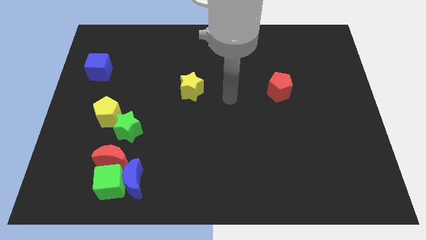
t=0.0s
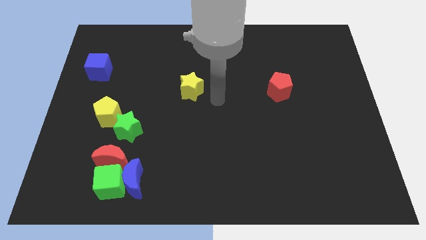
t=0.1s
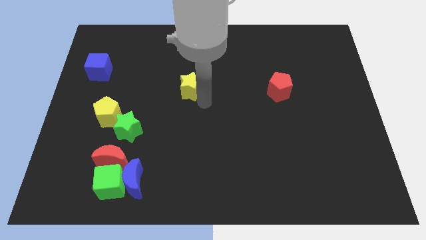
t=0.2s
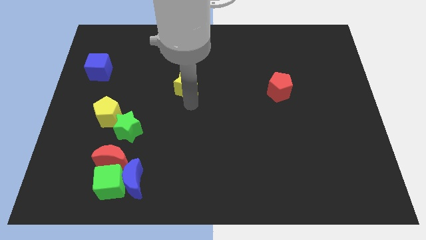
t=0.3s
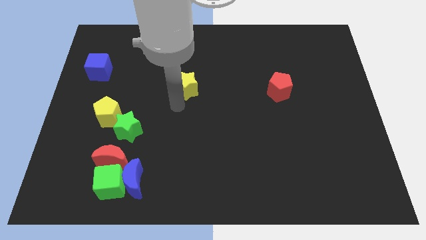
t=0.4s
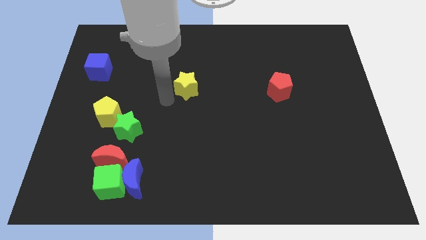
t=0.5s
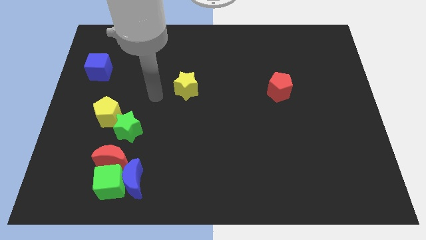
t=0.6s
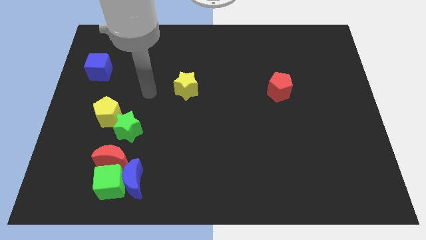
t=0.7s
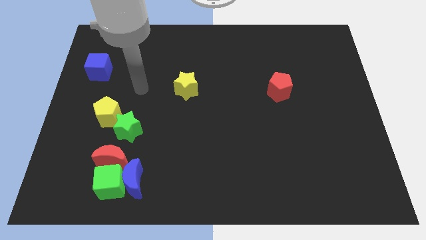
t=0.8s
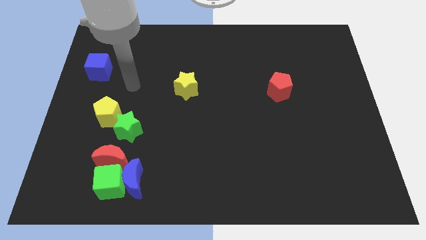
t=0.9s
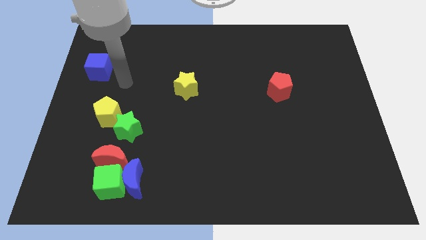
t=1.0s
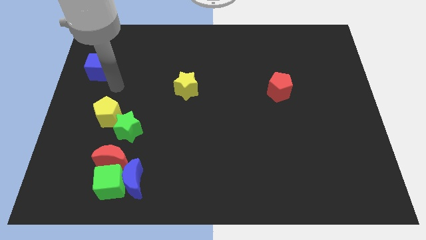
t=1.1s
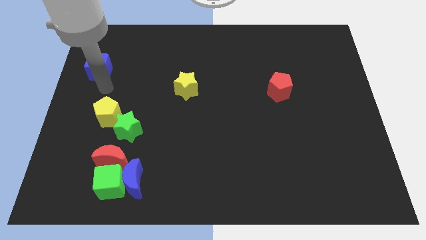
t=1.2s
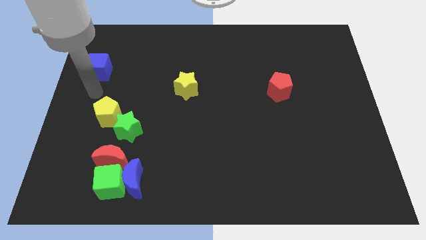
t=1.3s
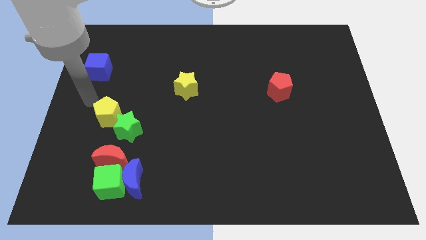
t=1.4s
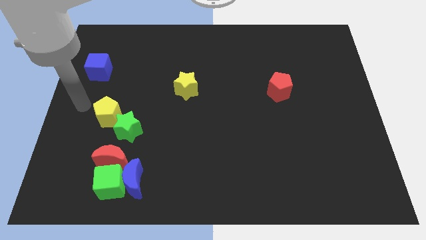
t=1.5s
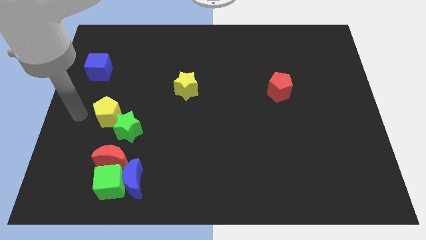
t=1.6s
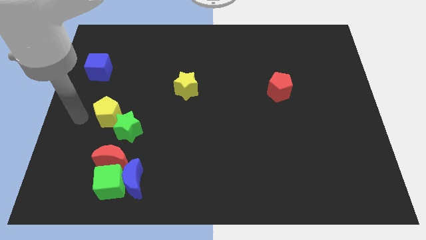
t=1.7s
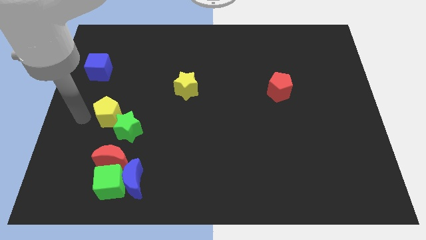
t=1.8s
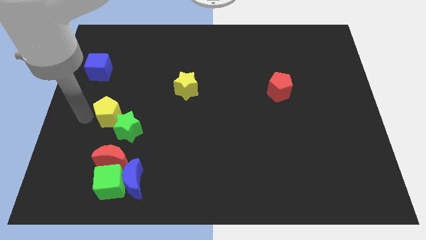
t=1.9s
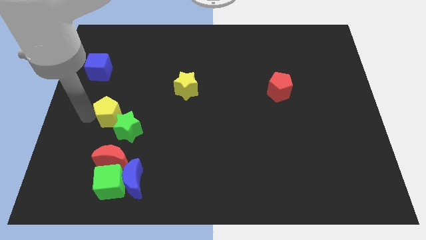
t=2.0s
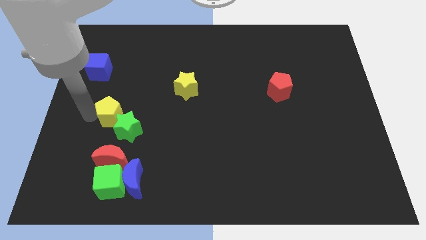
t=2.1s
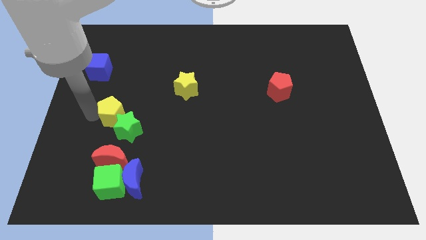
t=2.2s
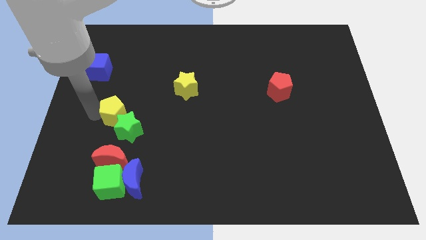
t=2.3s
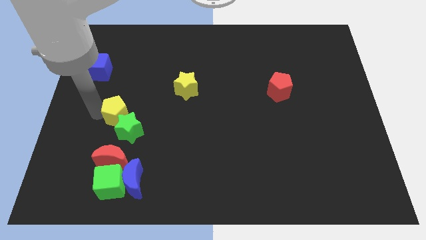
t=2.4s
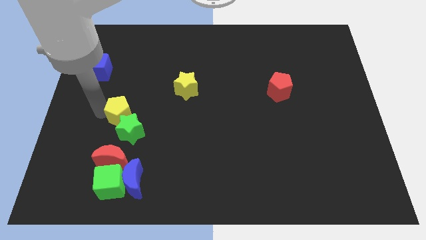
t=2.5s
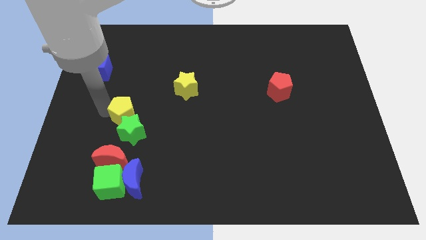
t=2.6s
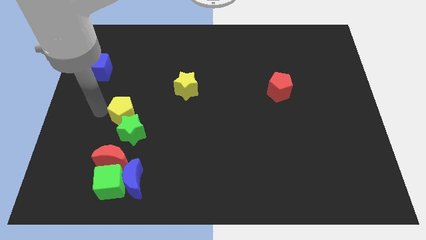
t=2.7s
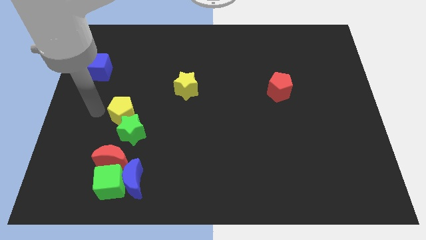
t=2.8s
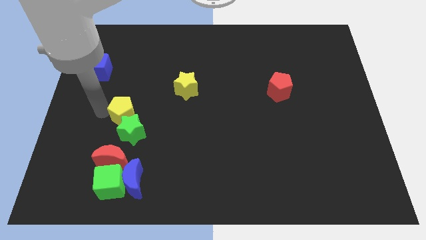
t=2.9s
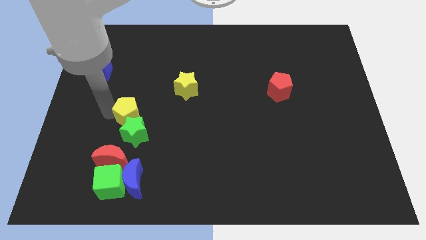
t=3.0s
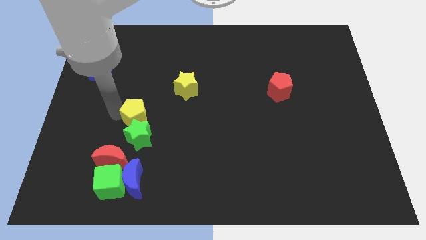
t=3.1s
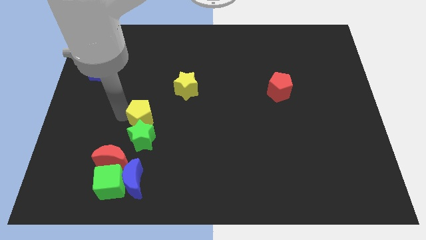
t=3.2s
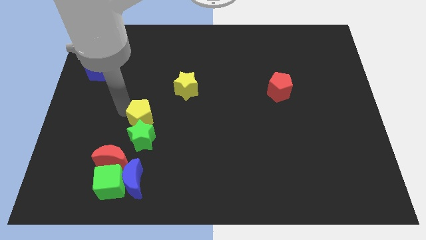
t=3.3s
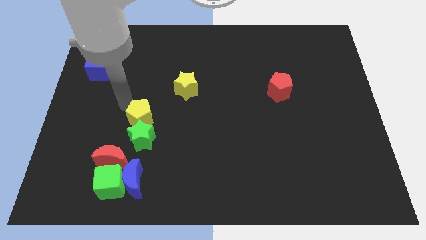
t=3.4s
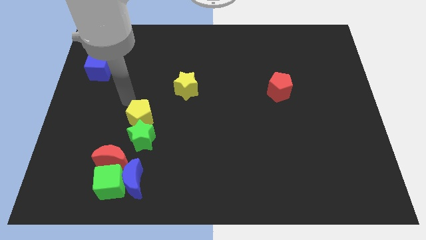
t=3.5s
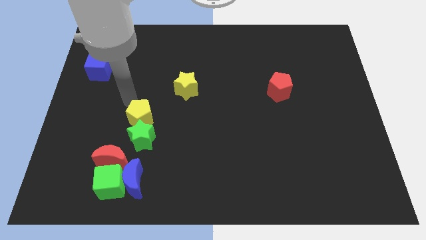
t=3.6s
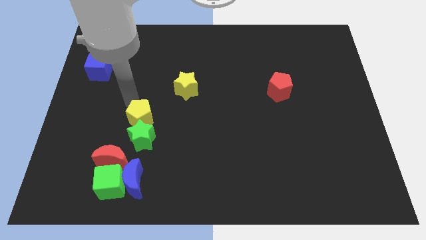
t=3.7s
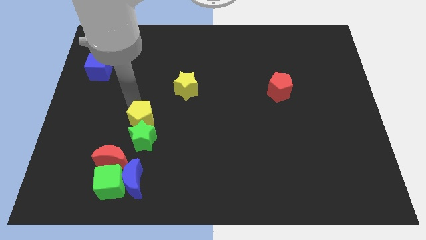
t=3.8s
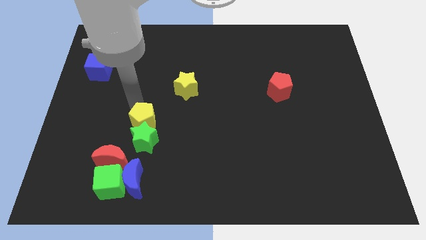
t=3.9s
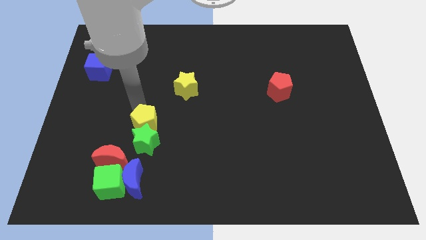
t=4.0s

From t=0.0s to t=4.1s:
push the yellow pentagon somewhat diagonally downwards and right

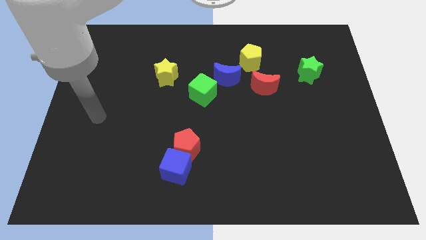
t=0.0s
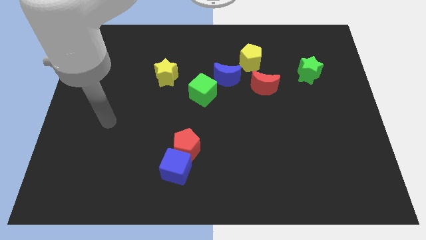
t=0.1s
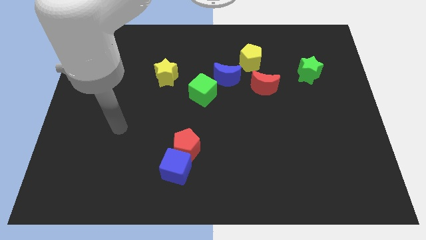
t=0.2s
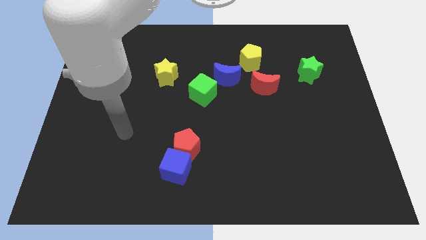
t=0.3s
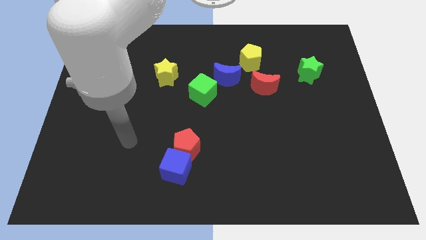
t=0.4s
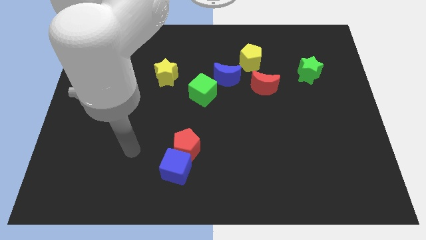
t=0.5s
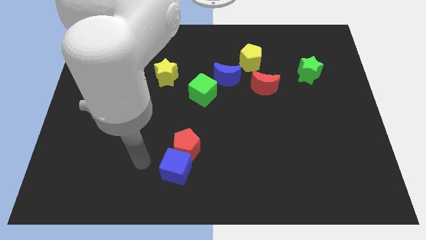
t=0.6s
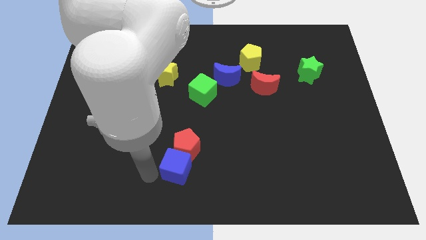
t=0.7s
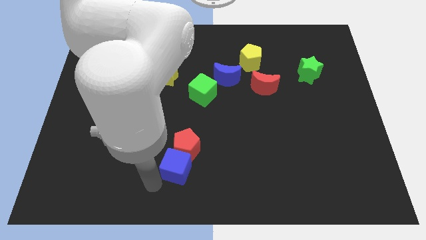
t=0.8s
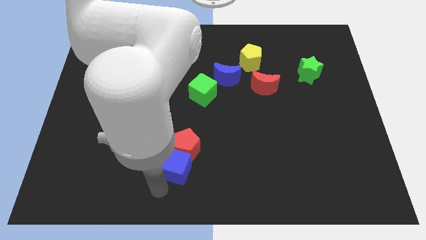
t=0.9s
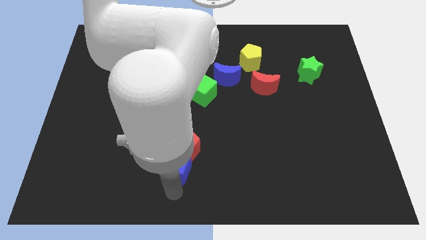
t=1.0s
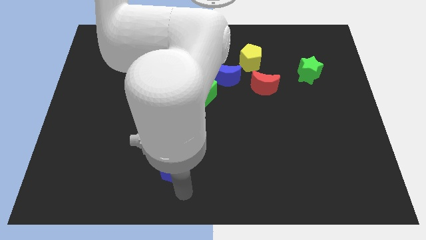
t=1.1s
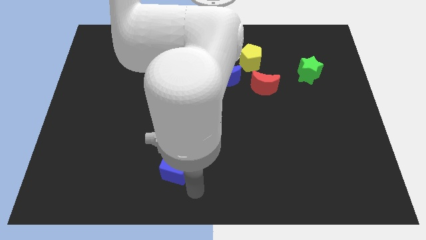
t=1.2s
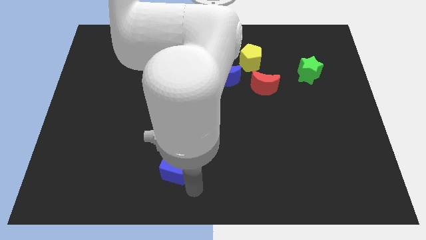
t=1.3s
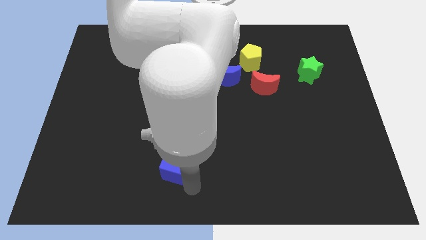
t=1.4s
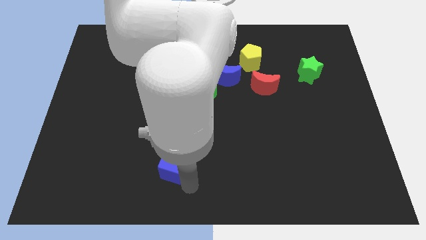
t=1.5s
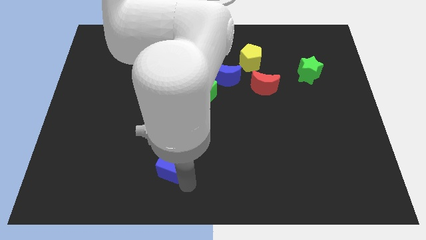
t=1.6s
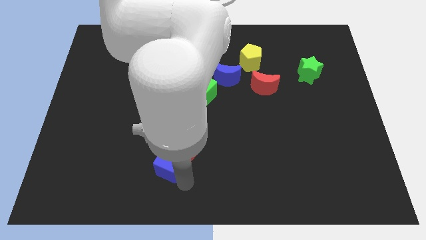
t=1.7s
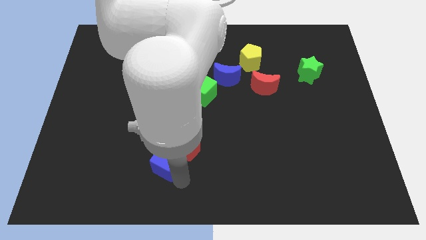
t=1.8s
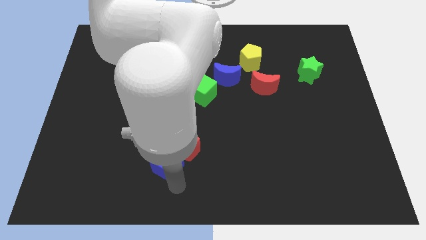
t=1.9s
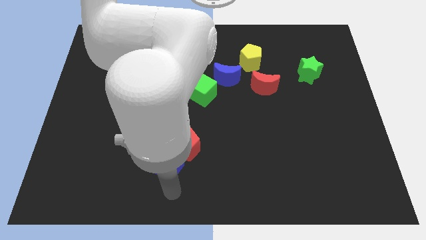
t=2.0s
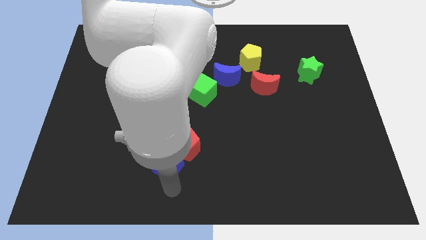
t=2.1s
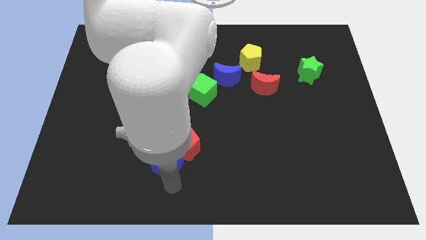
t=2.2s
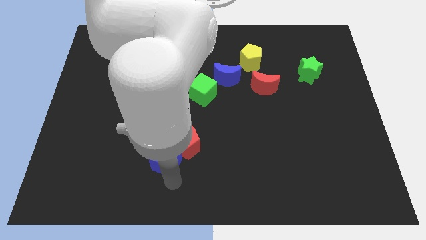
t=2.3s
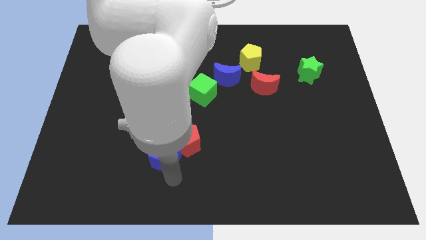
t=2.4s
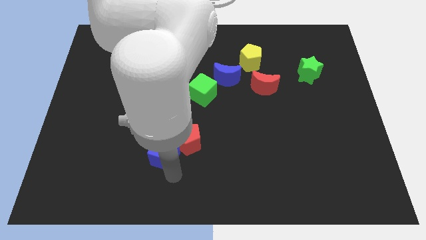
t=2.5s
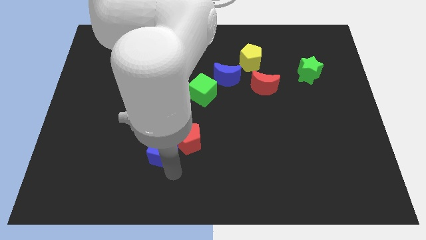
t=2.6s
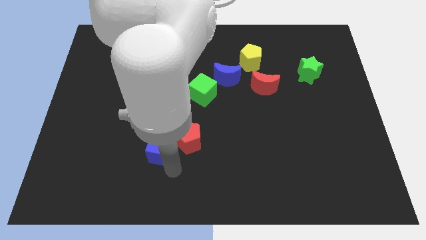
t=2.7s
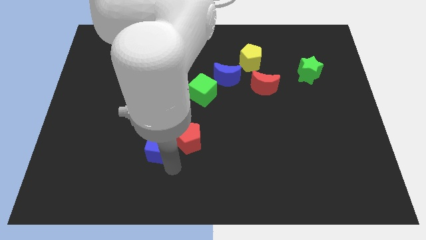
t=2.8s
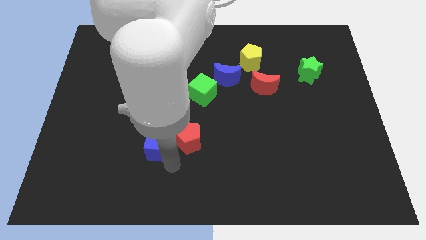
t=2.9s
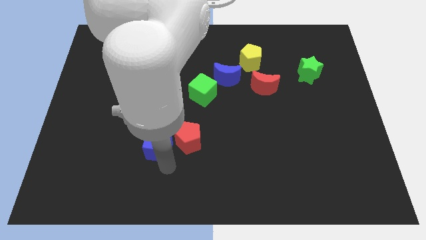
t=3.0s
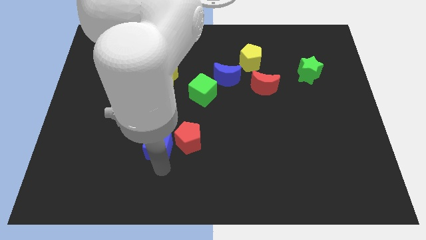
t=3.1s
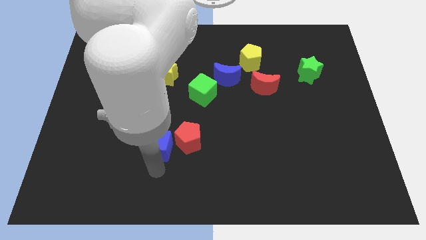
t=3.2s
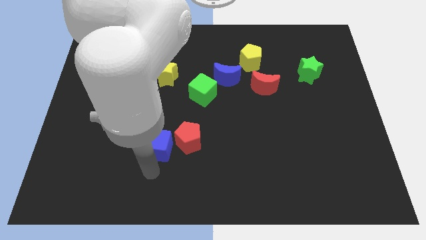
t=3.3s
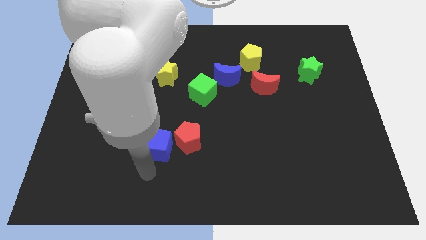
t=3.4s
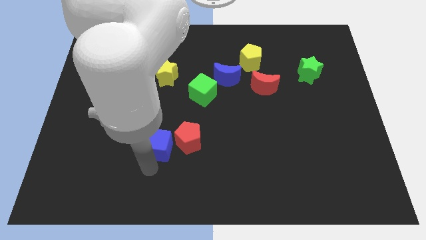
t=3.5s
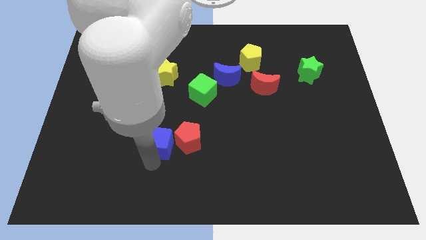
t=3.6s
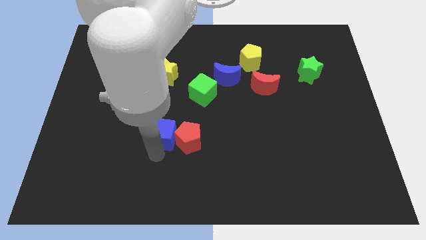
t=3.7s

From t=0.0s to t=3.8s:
slightly push the blue cube upwards
